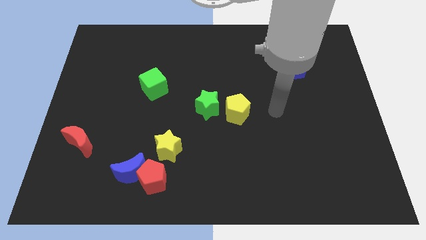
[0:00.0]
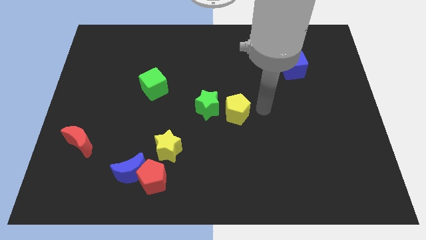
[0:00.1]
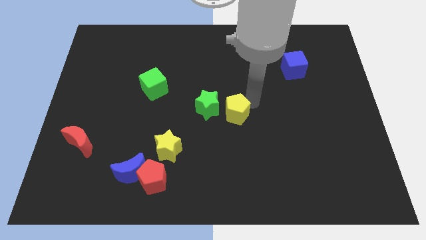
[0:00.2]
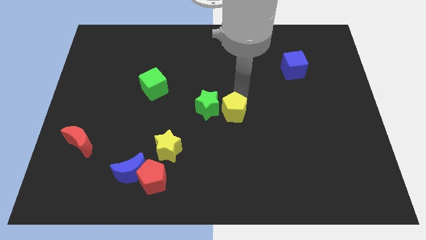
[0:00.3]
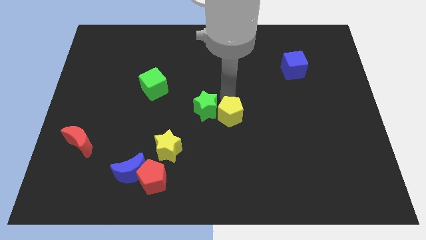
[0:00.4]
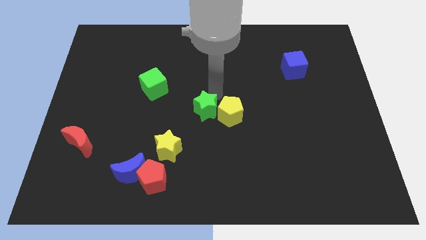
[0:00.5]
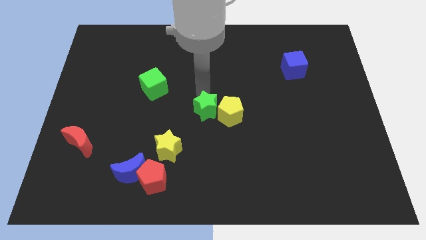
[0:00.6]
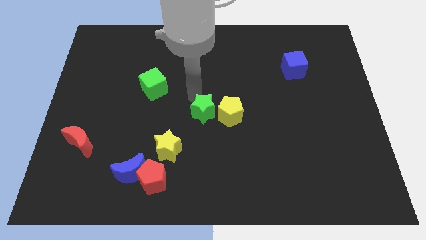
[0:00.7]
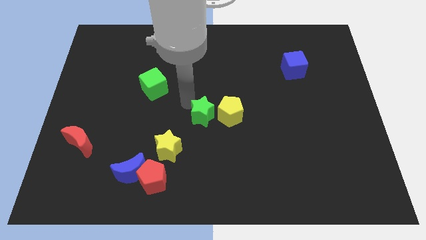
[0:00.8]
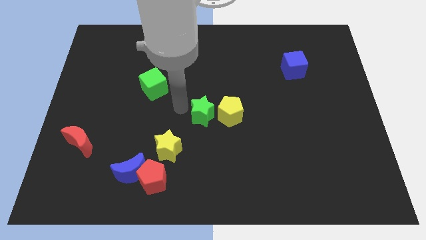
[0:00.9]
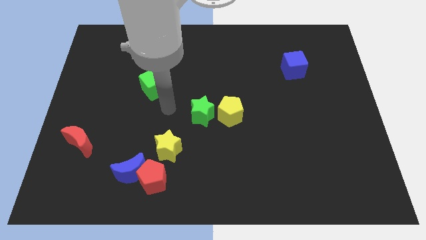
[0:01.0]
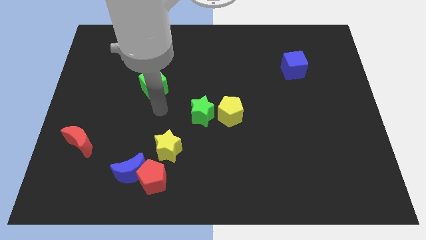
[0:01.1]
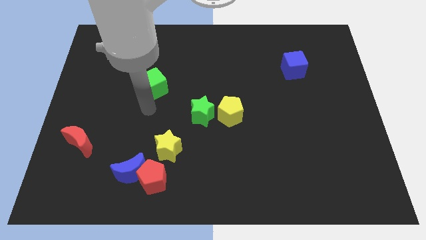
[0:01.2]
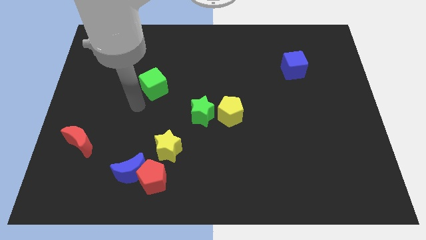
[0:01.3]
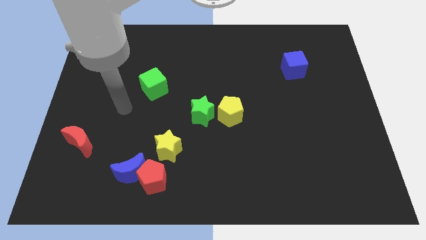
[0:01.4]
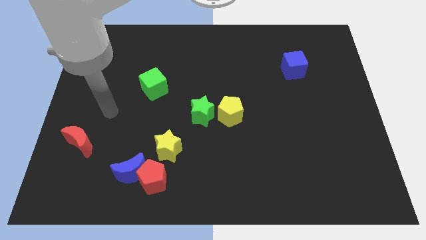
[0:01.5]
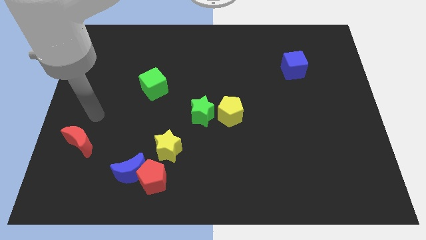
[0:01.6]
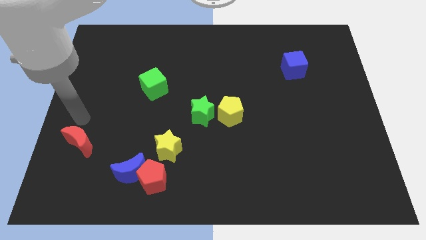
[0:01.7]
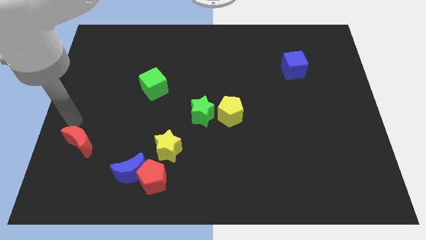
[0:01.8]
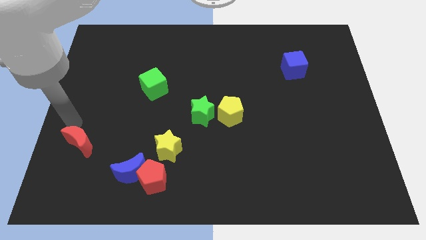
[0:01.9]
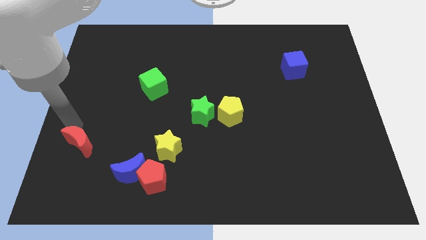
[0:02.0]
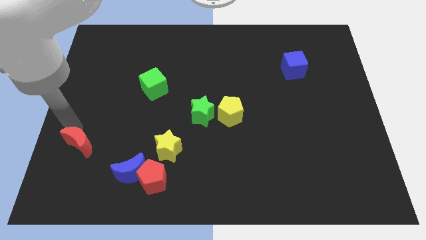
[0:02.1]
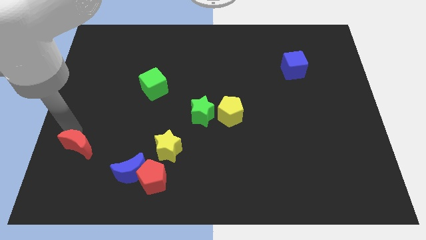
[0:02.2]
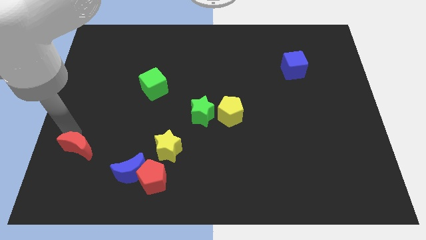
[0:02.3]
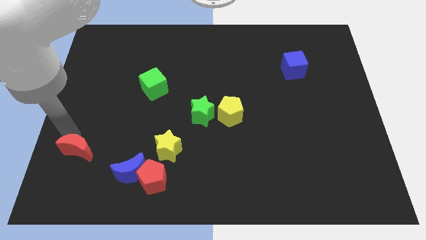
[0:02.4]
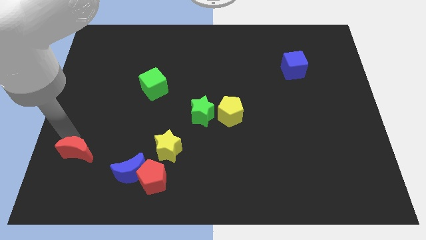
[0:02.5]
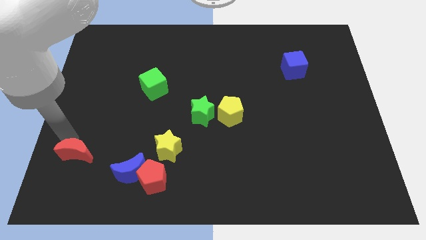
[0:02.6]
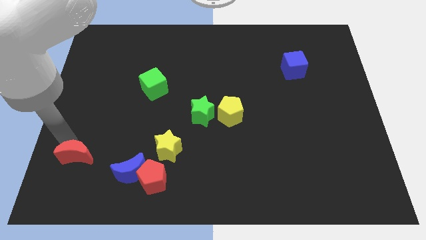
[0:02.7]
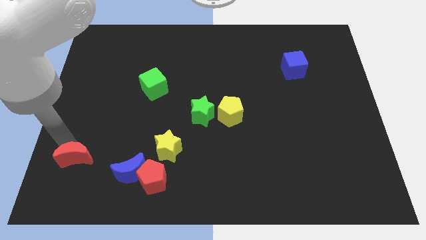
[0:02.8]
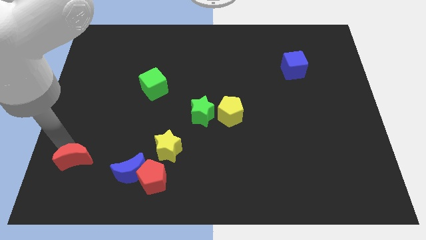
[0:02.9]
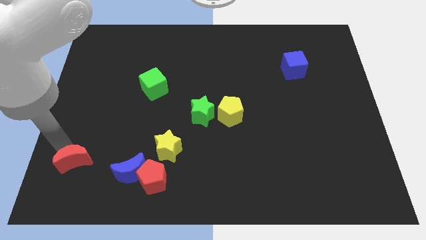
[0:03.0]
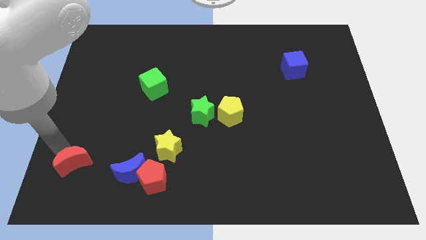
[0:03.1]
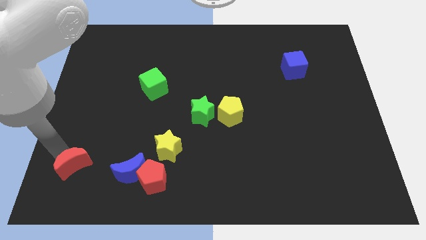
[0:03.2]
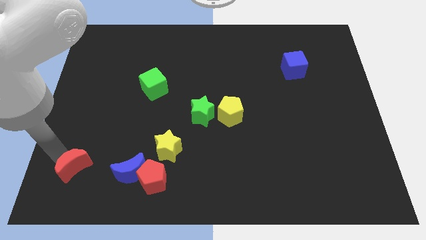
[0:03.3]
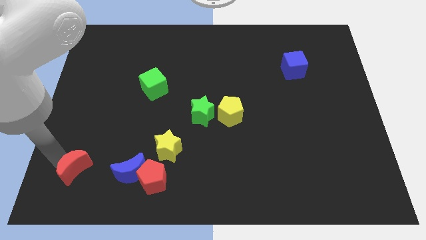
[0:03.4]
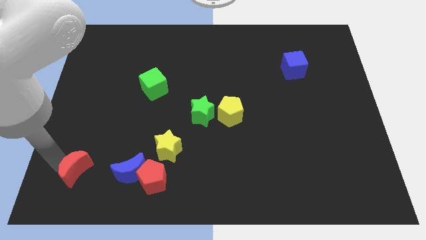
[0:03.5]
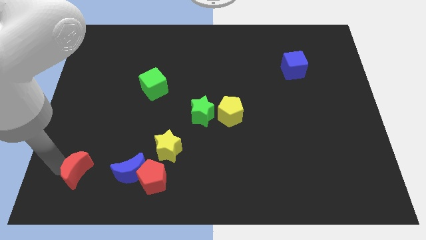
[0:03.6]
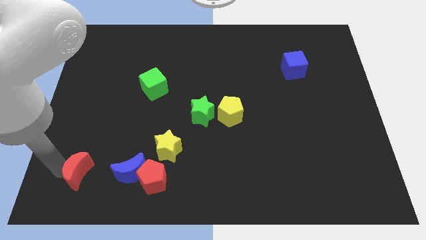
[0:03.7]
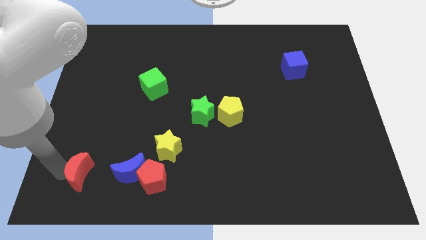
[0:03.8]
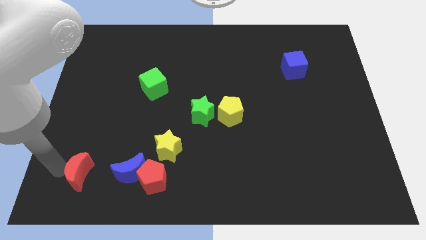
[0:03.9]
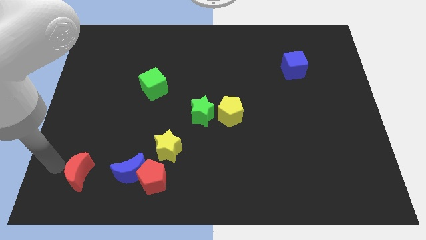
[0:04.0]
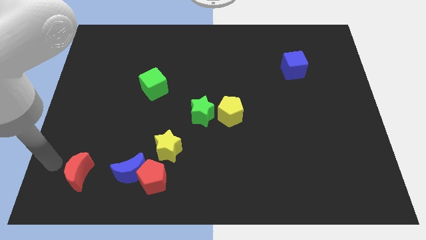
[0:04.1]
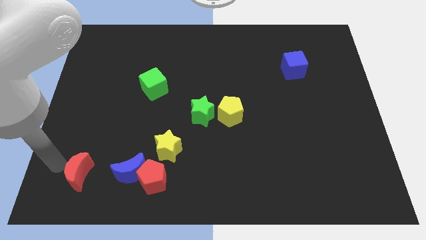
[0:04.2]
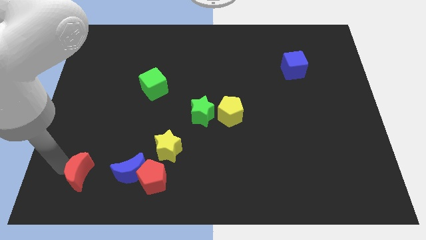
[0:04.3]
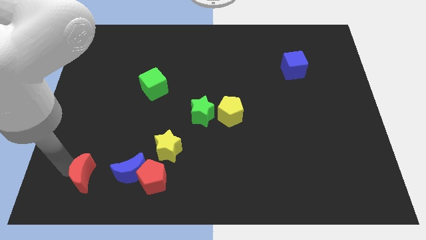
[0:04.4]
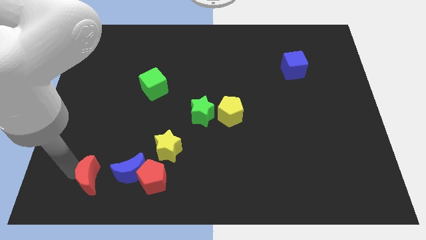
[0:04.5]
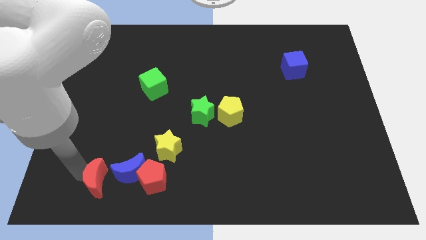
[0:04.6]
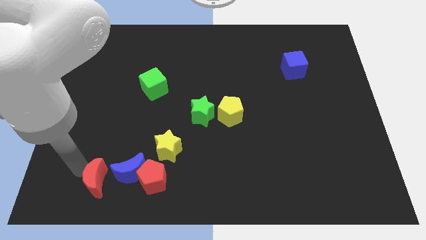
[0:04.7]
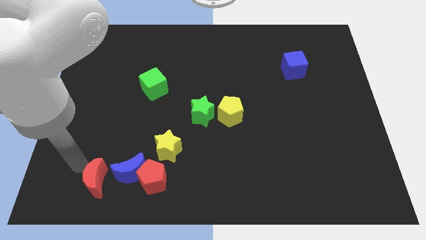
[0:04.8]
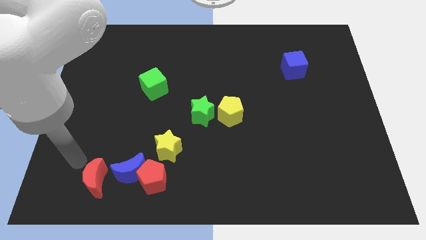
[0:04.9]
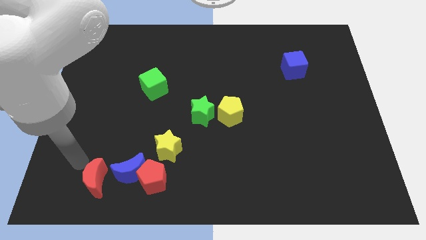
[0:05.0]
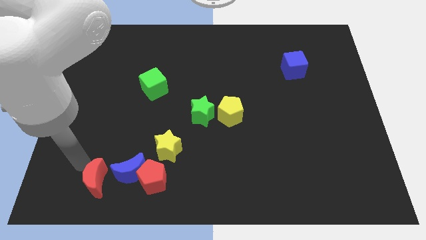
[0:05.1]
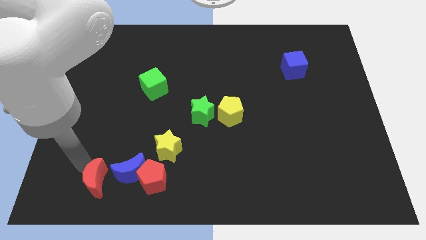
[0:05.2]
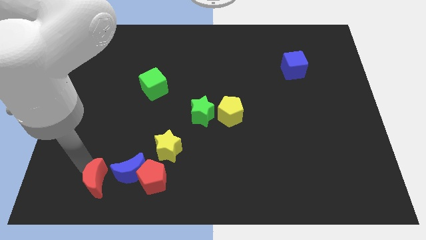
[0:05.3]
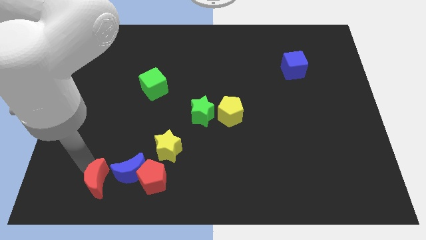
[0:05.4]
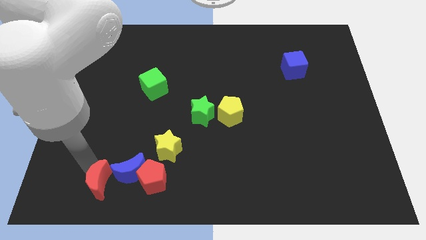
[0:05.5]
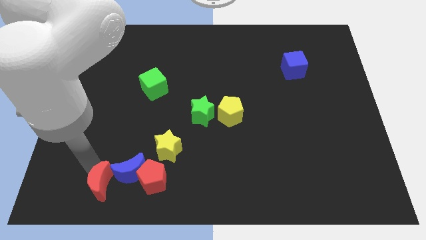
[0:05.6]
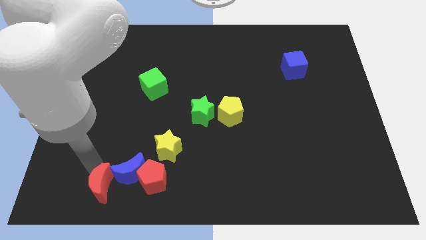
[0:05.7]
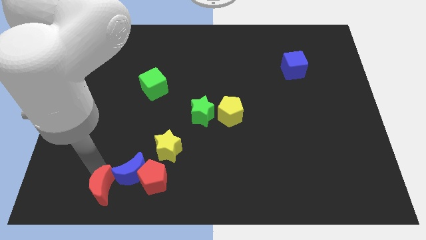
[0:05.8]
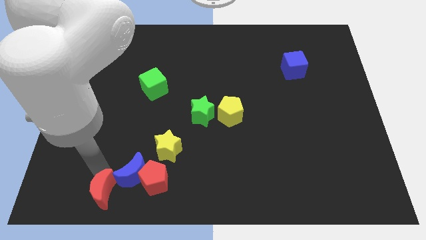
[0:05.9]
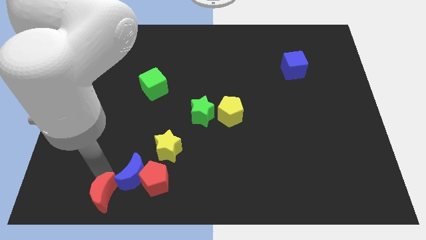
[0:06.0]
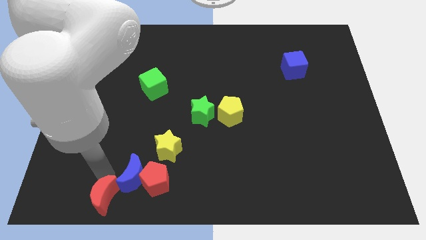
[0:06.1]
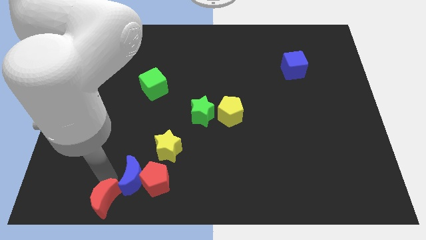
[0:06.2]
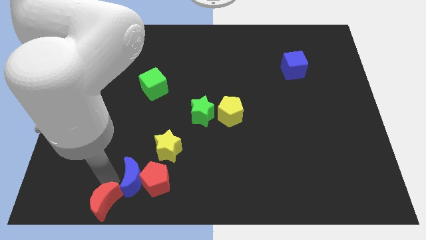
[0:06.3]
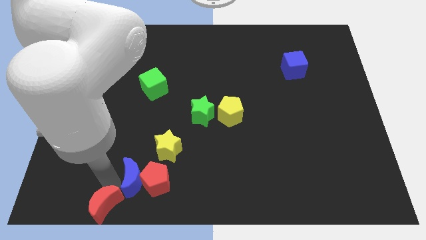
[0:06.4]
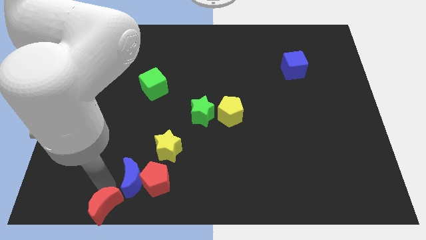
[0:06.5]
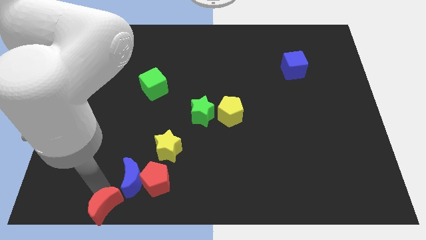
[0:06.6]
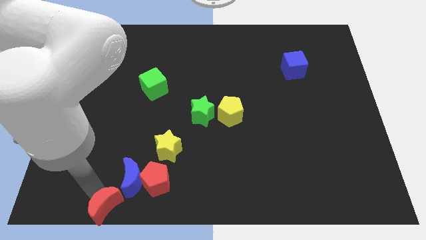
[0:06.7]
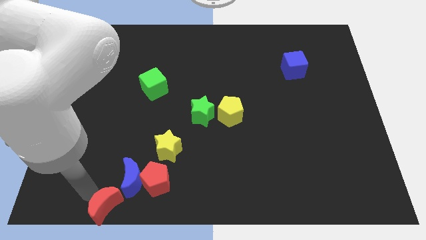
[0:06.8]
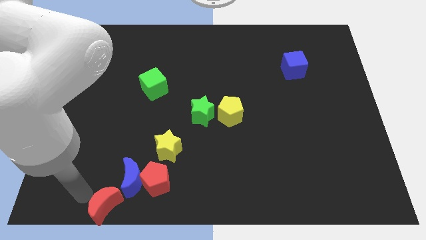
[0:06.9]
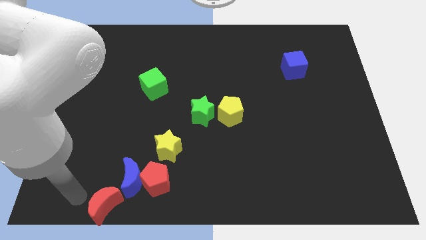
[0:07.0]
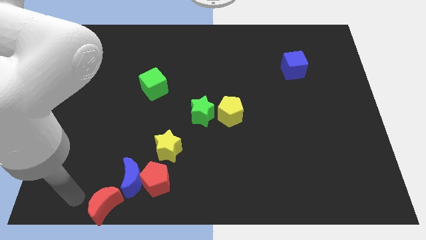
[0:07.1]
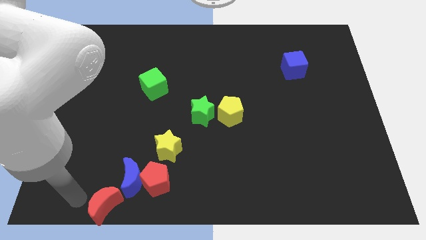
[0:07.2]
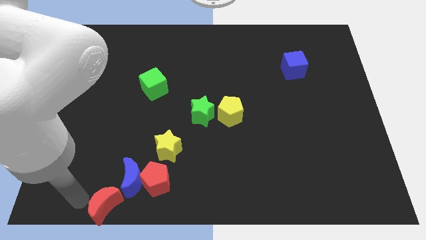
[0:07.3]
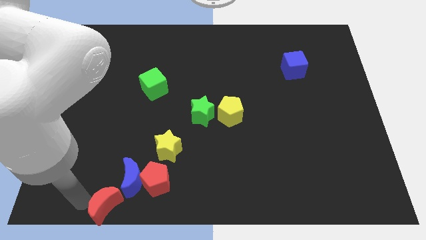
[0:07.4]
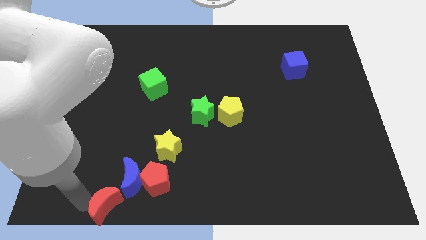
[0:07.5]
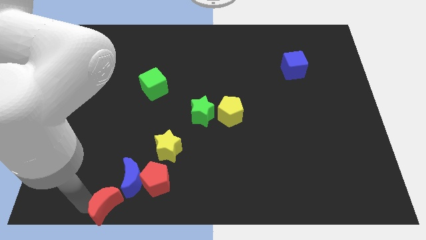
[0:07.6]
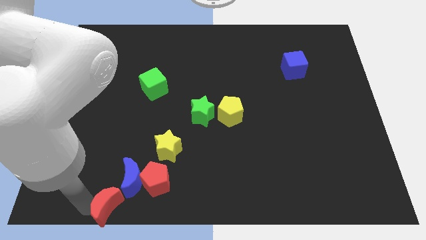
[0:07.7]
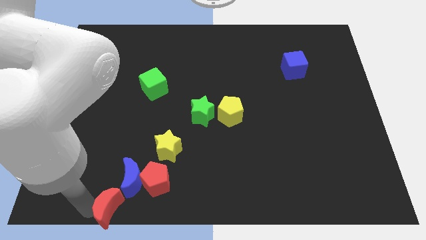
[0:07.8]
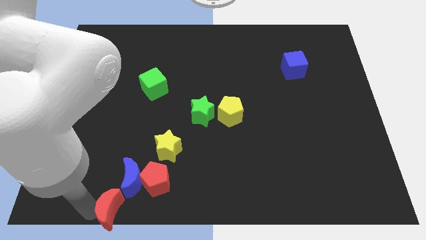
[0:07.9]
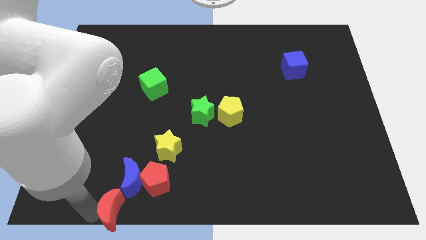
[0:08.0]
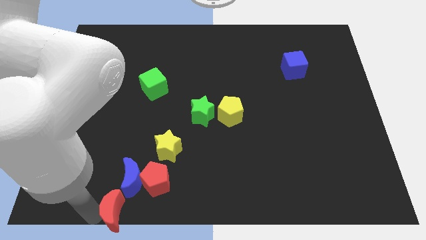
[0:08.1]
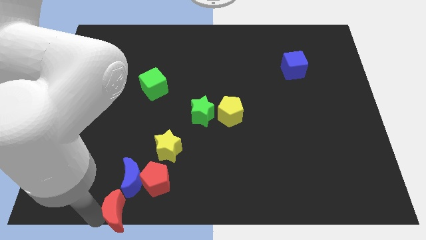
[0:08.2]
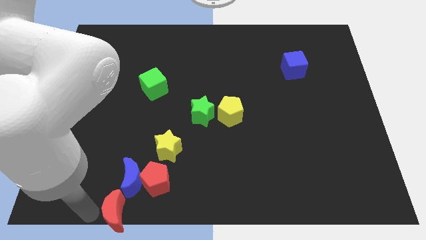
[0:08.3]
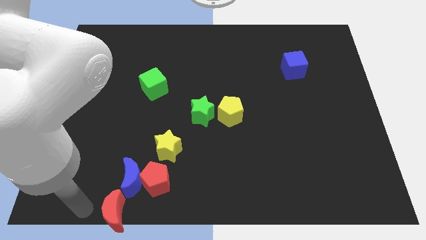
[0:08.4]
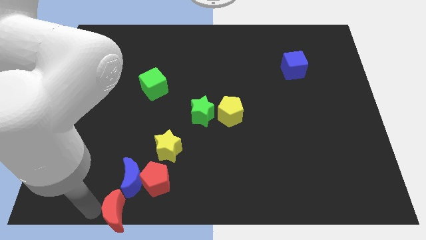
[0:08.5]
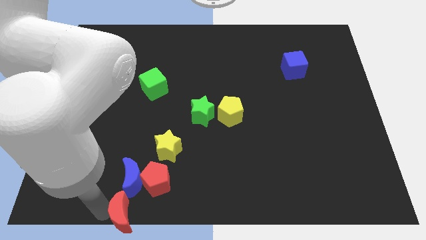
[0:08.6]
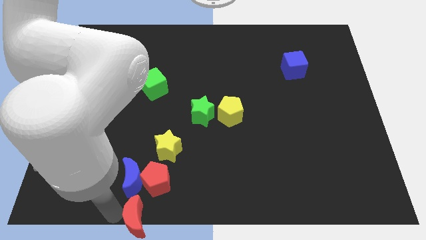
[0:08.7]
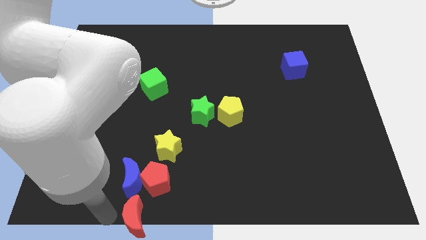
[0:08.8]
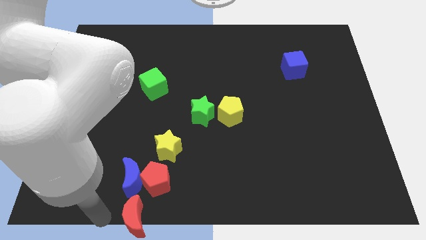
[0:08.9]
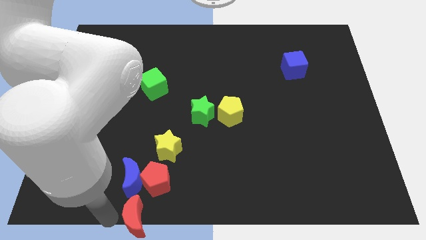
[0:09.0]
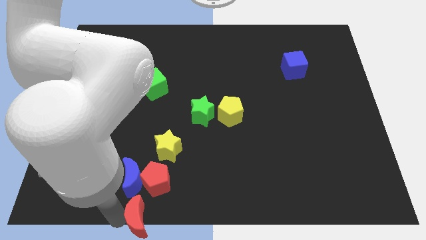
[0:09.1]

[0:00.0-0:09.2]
put the red moon to the bottom side
